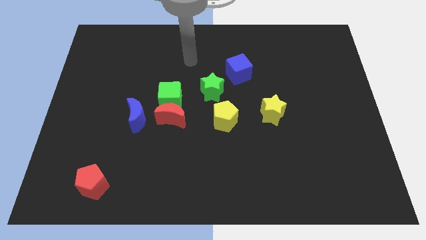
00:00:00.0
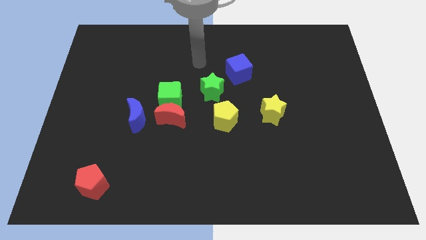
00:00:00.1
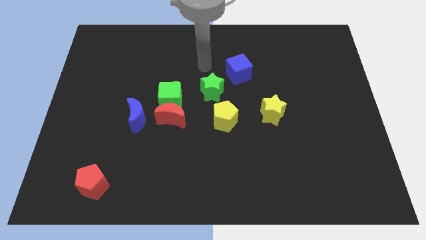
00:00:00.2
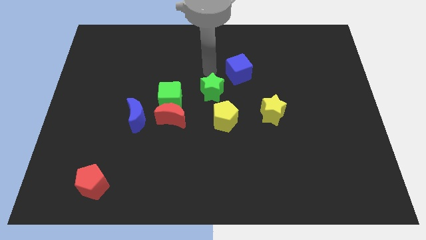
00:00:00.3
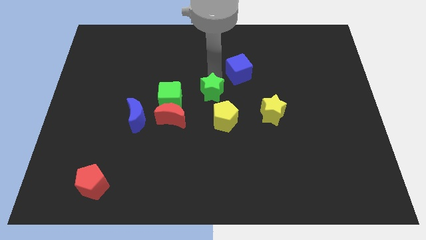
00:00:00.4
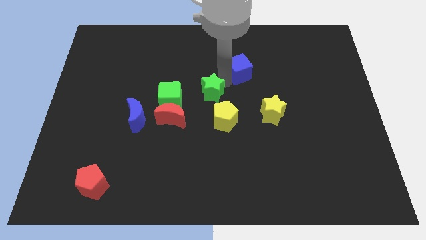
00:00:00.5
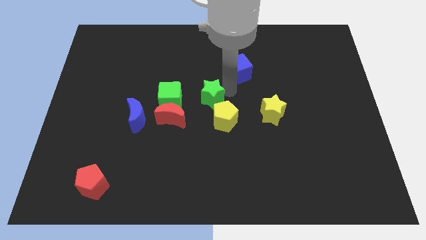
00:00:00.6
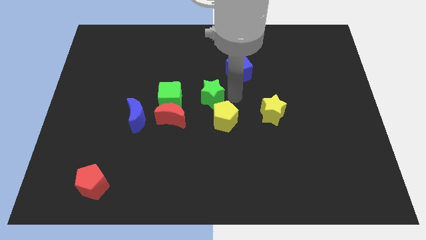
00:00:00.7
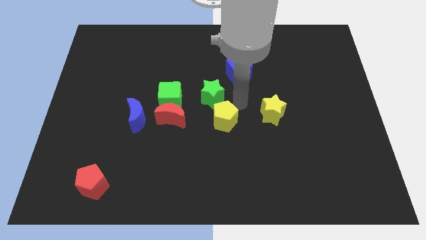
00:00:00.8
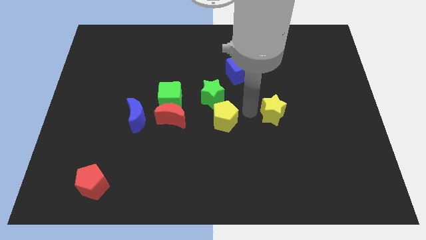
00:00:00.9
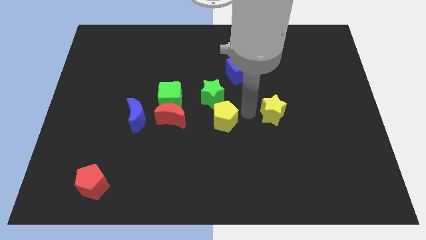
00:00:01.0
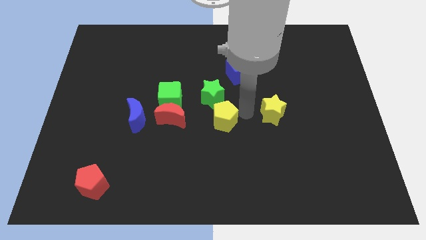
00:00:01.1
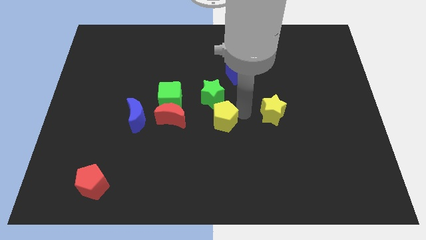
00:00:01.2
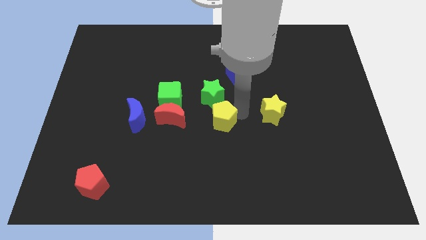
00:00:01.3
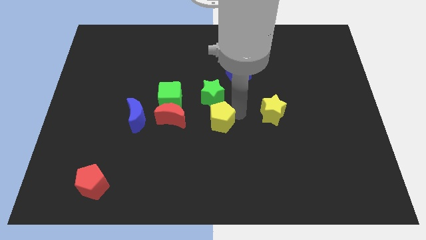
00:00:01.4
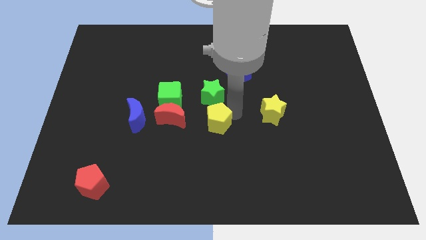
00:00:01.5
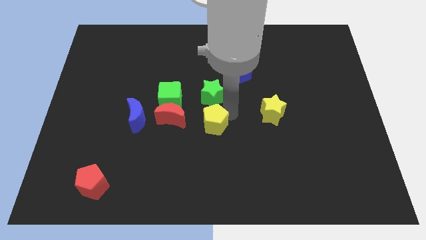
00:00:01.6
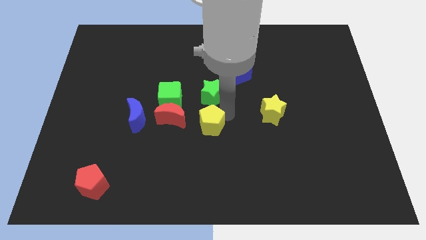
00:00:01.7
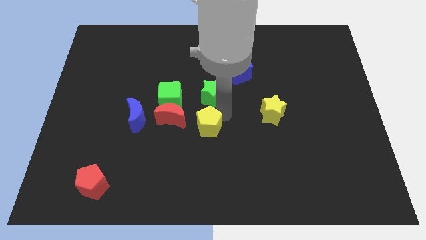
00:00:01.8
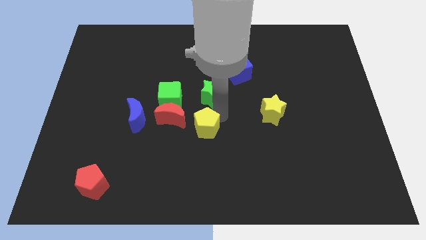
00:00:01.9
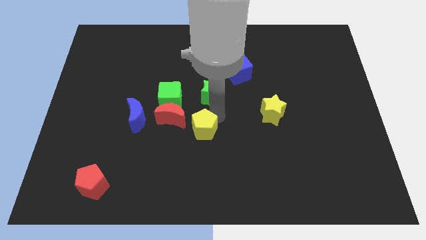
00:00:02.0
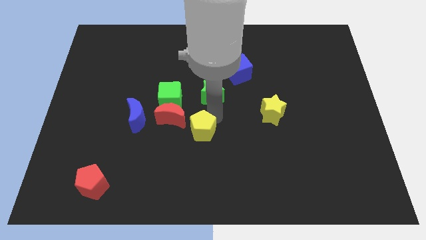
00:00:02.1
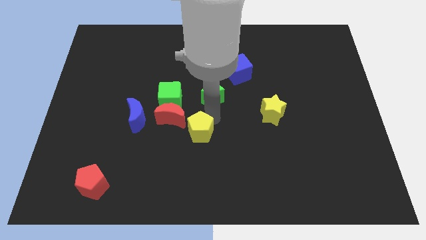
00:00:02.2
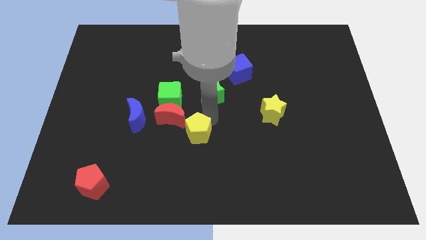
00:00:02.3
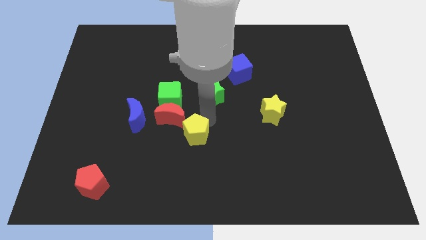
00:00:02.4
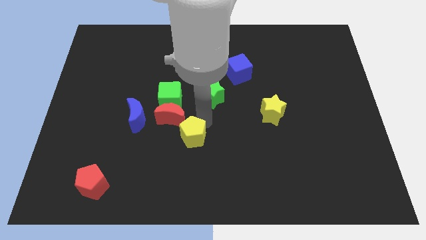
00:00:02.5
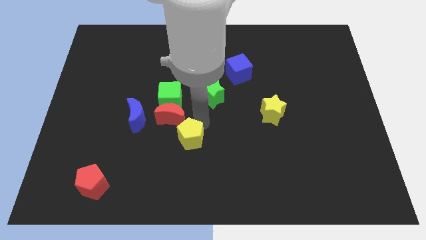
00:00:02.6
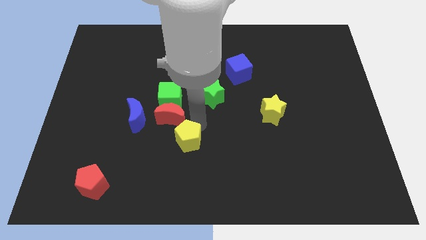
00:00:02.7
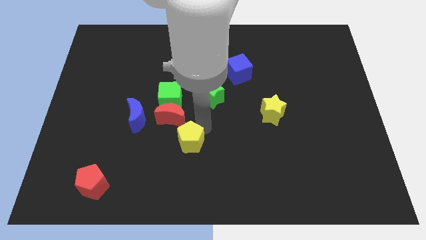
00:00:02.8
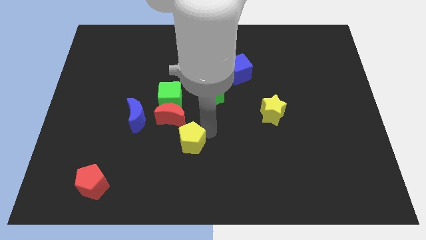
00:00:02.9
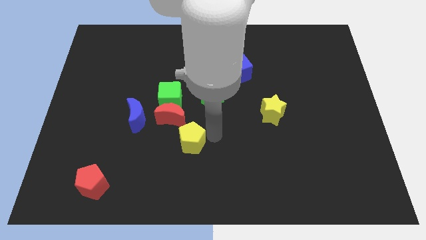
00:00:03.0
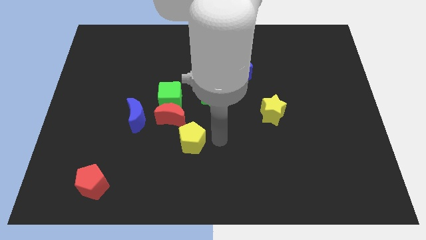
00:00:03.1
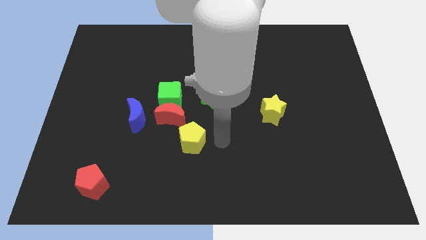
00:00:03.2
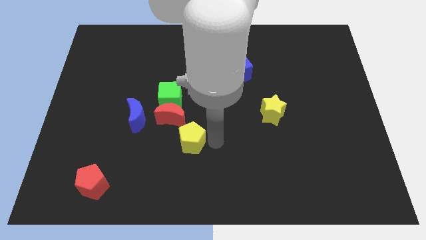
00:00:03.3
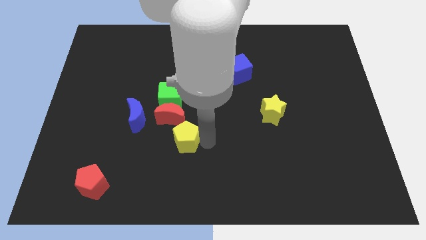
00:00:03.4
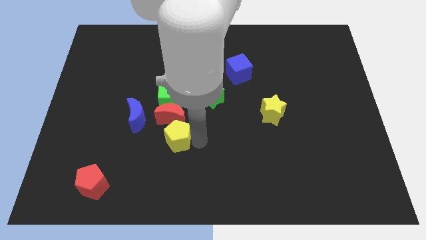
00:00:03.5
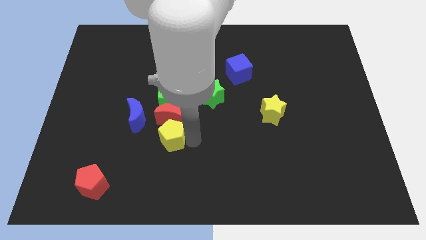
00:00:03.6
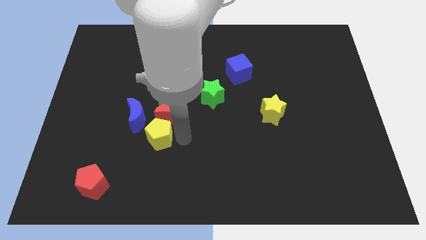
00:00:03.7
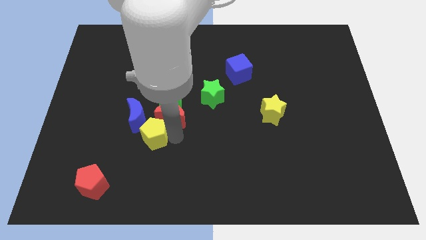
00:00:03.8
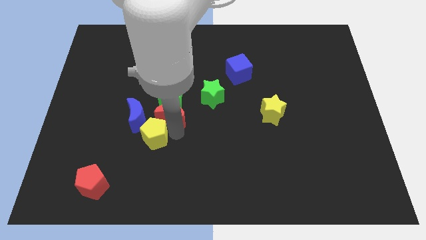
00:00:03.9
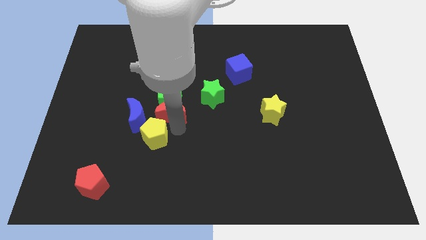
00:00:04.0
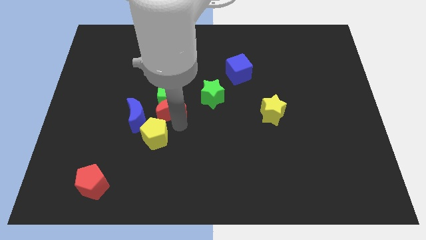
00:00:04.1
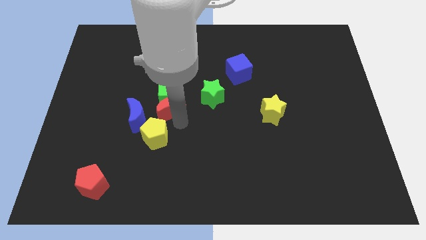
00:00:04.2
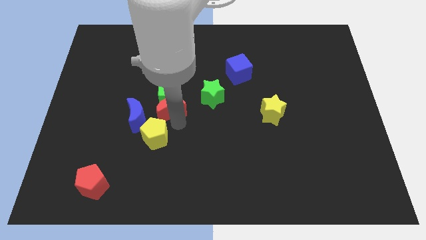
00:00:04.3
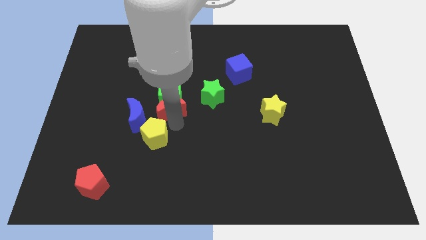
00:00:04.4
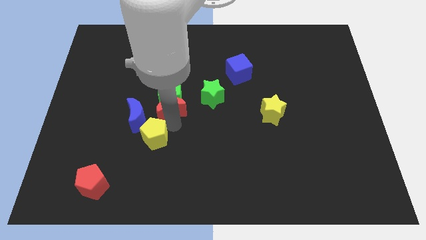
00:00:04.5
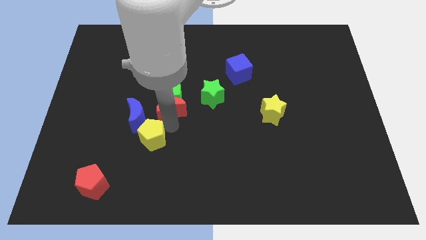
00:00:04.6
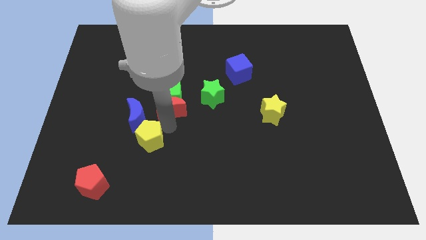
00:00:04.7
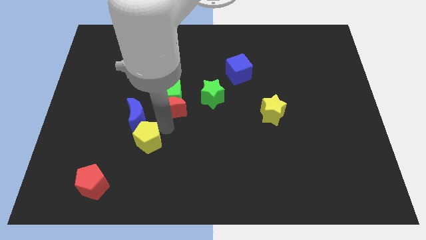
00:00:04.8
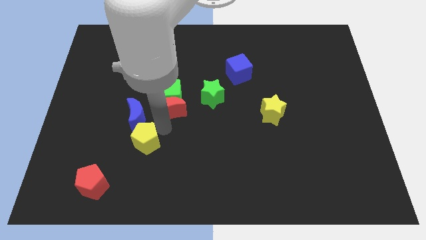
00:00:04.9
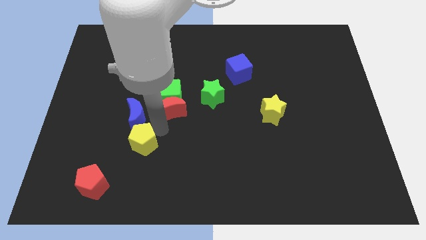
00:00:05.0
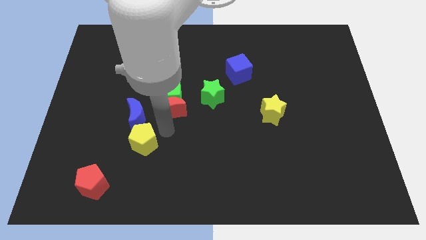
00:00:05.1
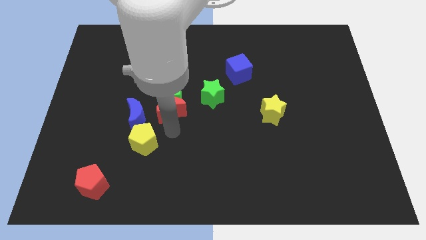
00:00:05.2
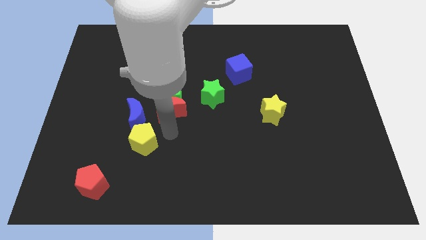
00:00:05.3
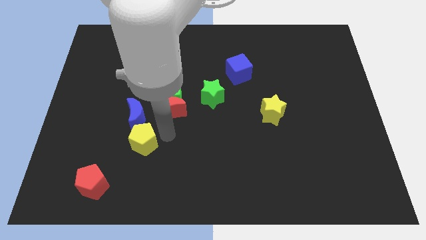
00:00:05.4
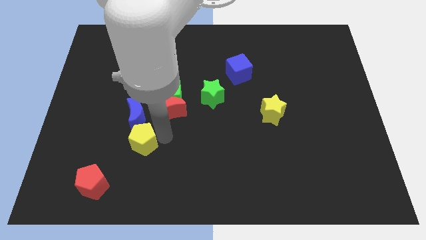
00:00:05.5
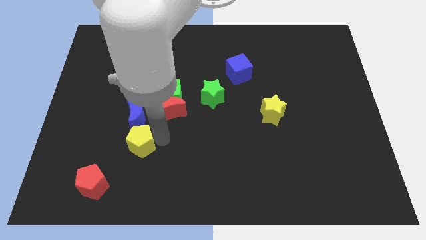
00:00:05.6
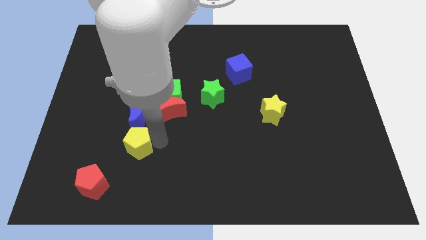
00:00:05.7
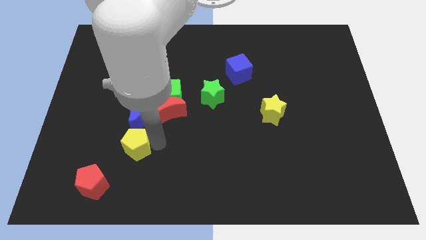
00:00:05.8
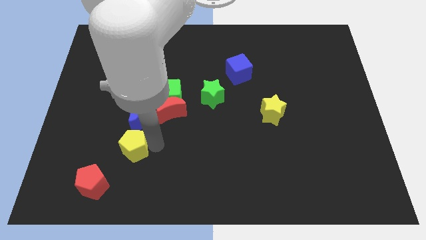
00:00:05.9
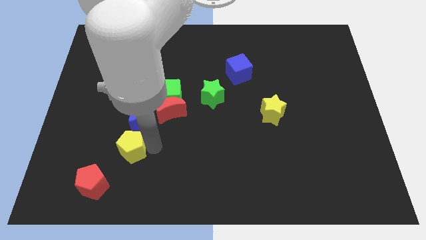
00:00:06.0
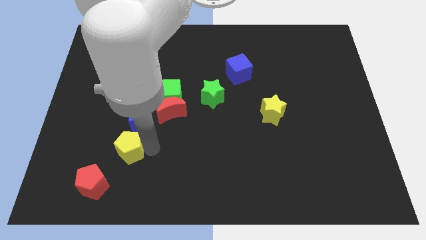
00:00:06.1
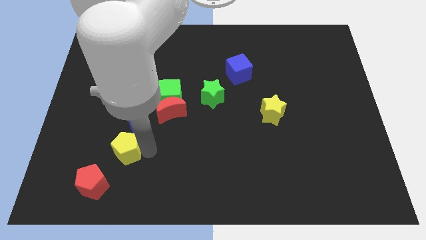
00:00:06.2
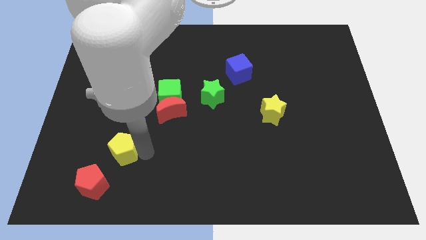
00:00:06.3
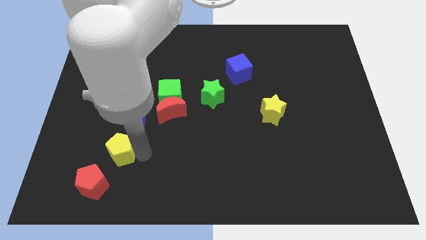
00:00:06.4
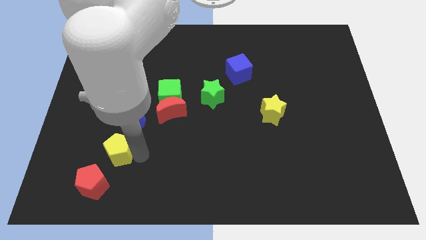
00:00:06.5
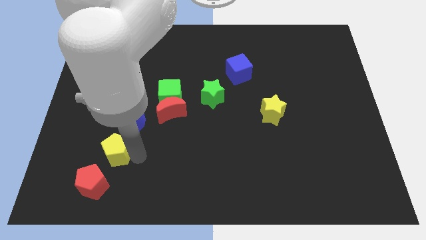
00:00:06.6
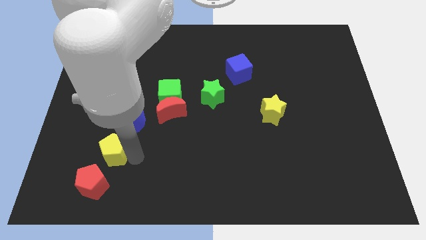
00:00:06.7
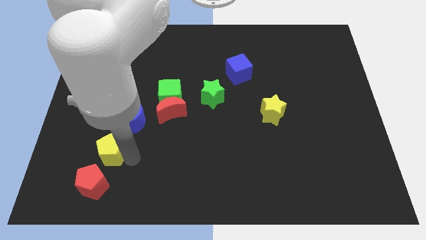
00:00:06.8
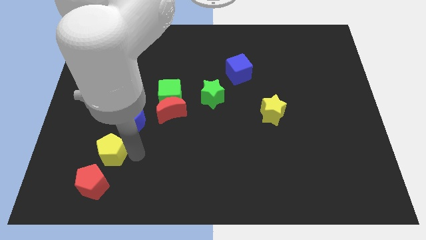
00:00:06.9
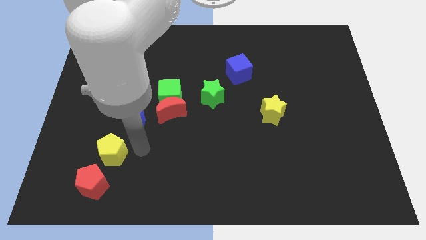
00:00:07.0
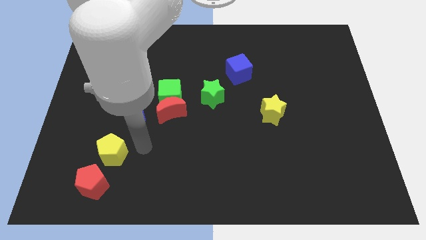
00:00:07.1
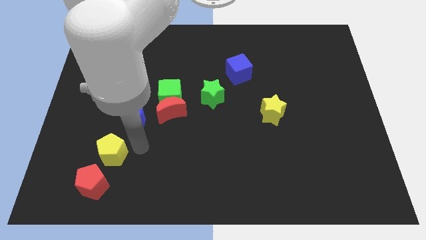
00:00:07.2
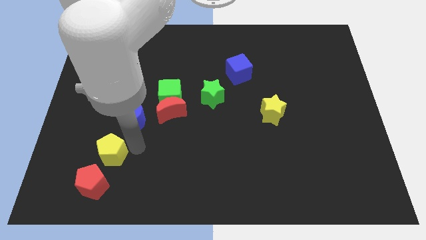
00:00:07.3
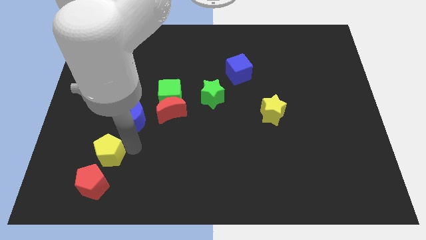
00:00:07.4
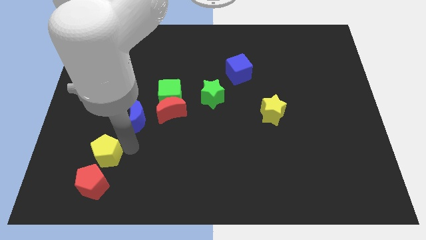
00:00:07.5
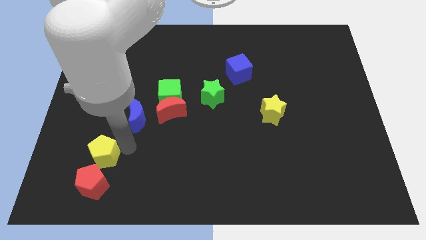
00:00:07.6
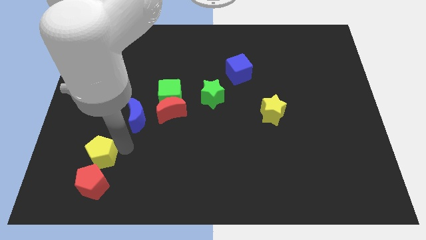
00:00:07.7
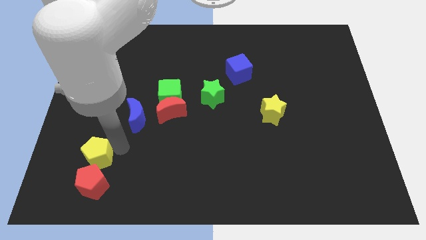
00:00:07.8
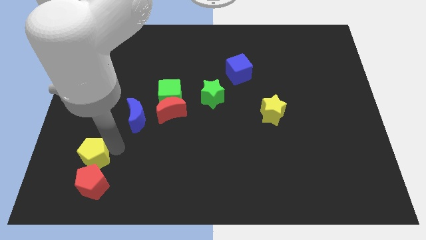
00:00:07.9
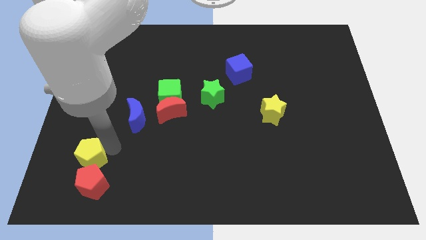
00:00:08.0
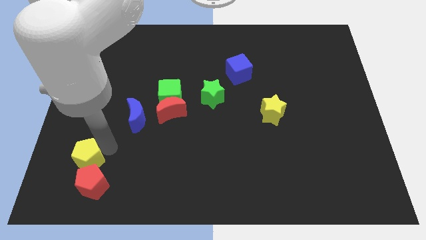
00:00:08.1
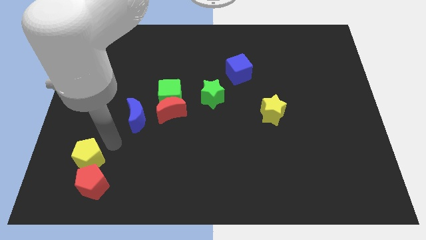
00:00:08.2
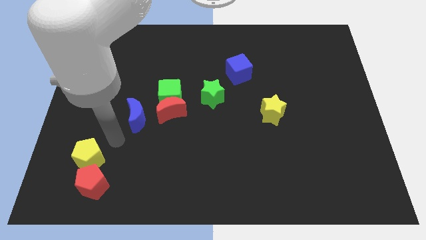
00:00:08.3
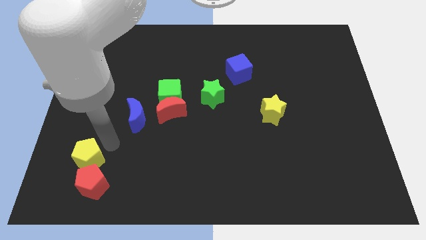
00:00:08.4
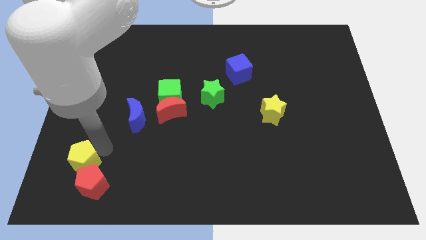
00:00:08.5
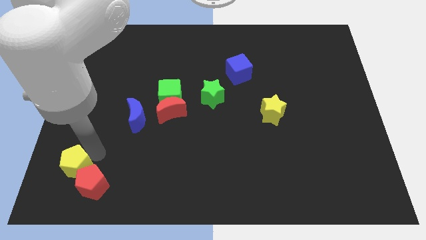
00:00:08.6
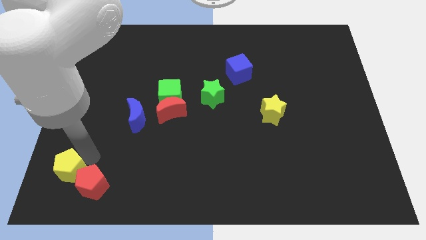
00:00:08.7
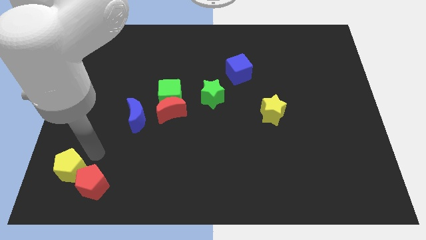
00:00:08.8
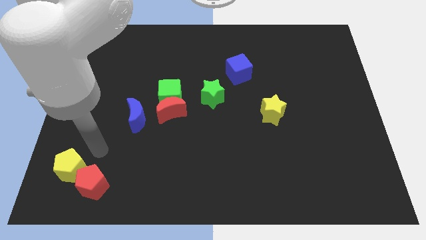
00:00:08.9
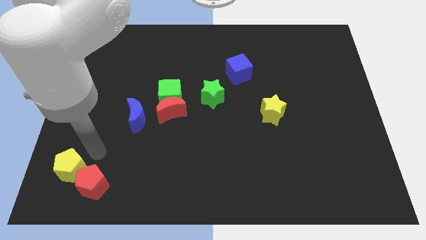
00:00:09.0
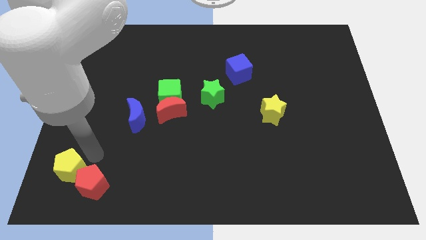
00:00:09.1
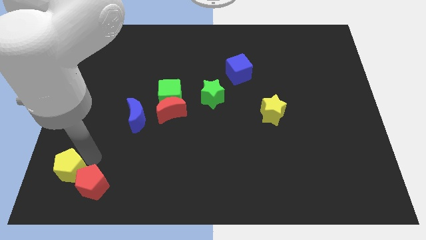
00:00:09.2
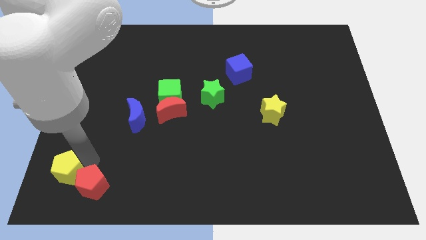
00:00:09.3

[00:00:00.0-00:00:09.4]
slide the yellow pentagon to the bottom left
